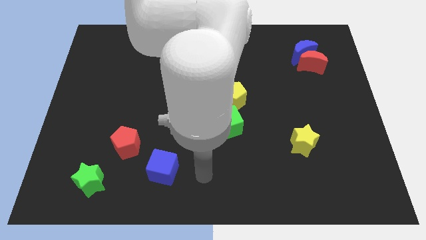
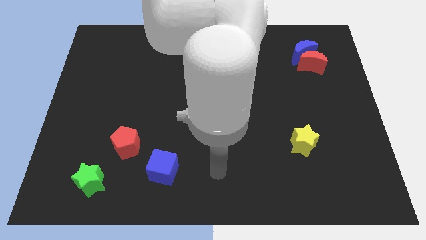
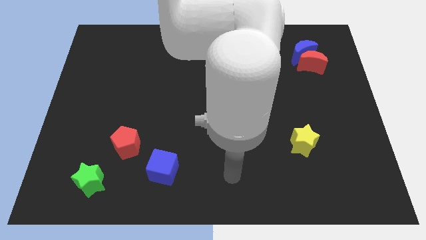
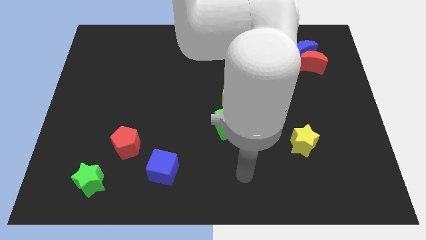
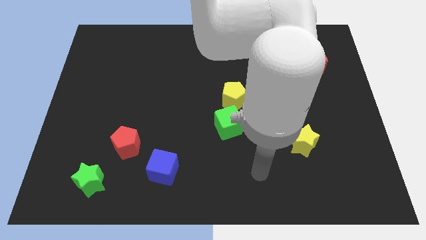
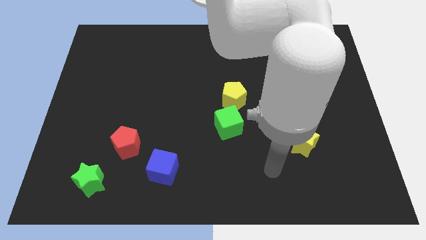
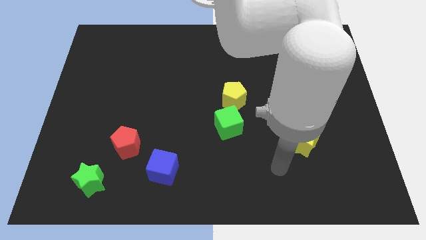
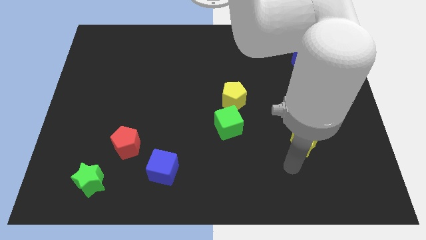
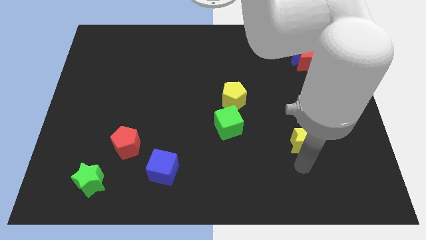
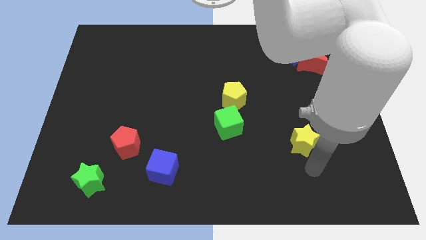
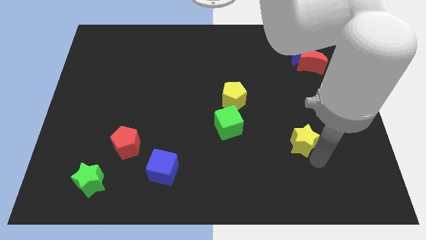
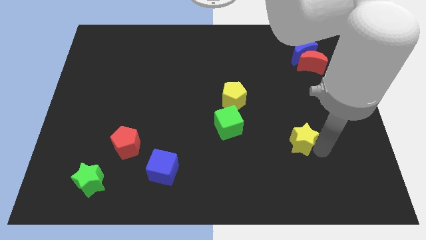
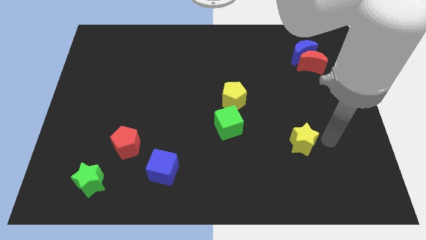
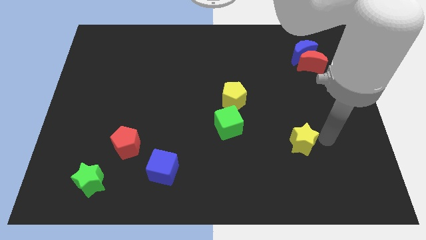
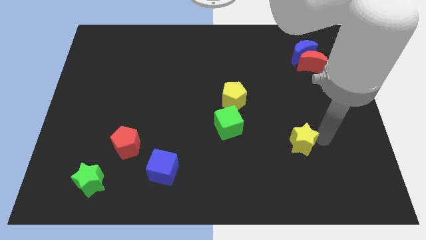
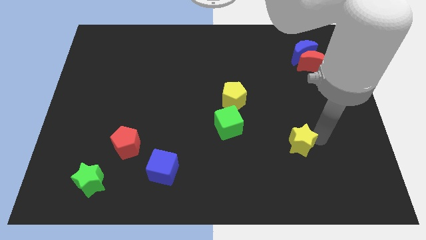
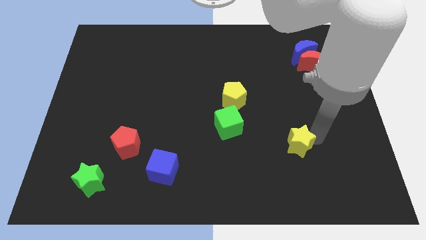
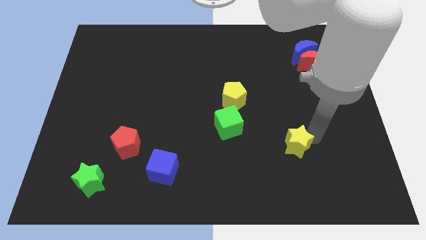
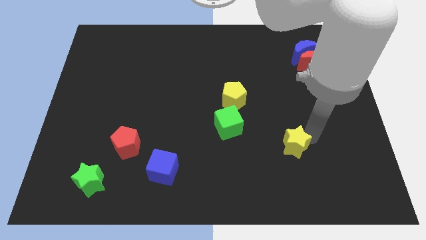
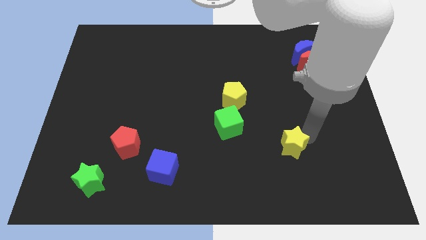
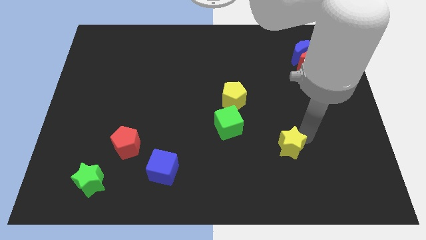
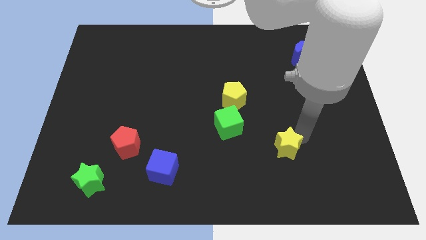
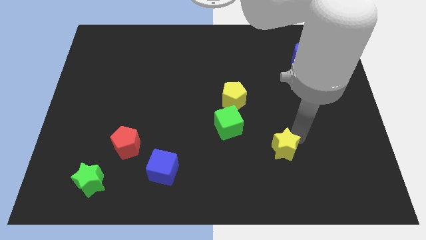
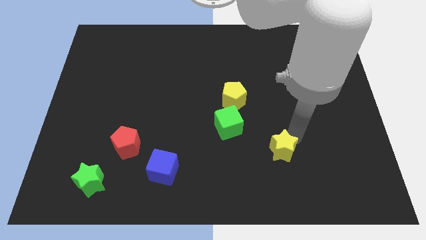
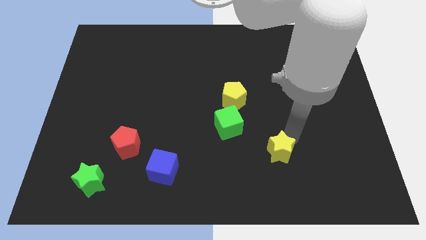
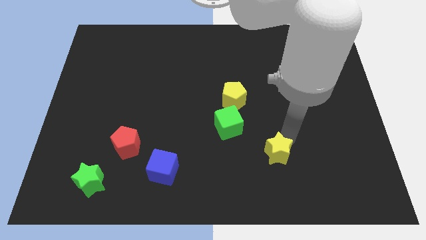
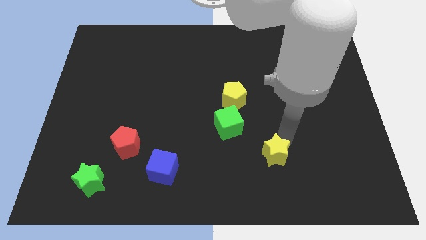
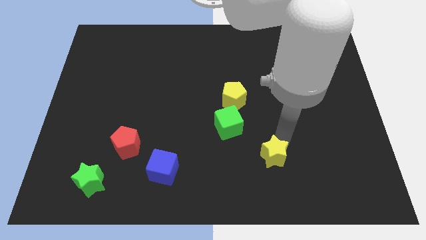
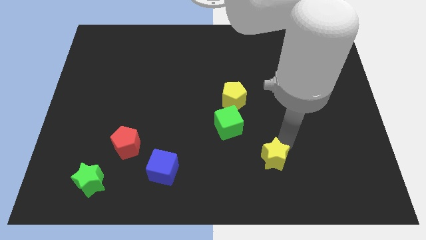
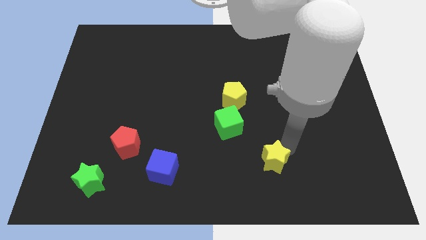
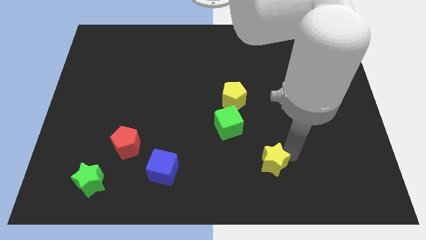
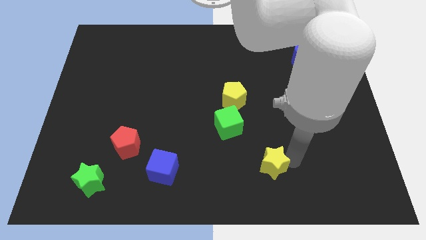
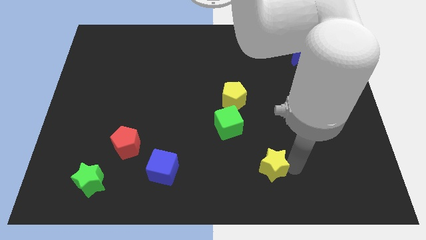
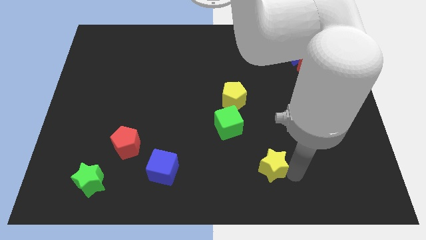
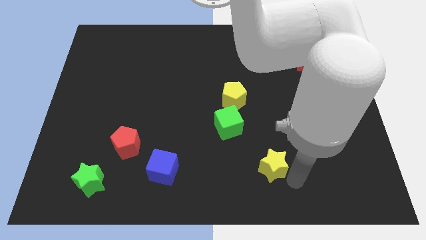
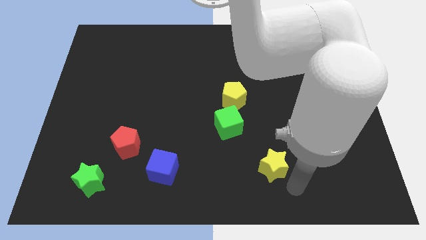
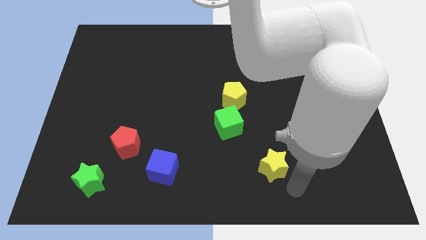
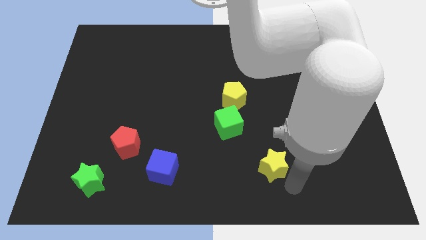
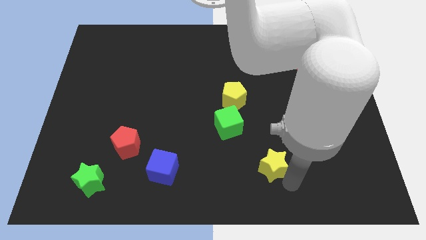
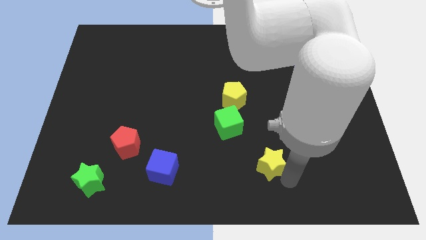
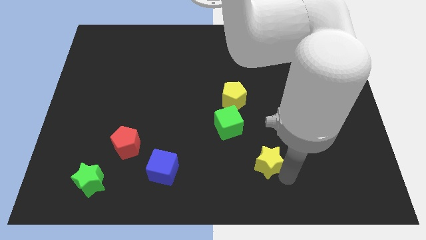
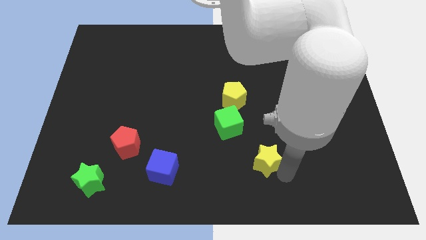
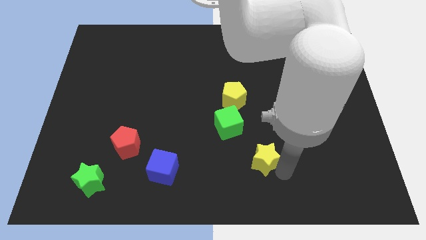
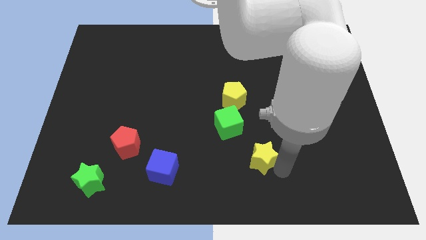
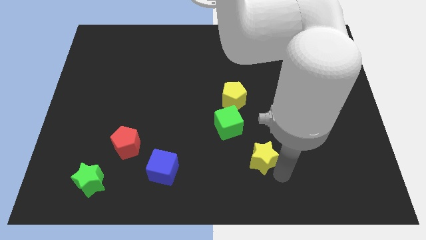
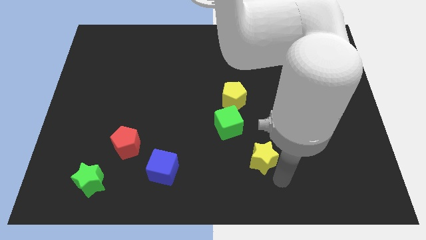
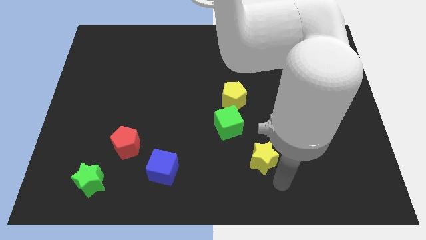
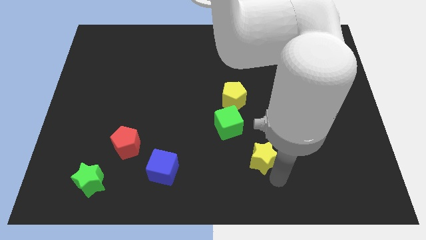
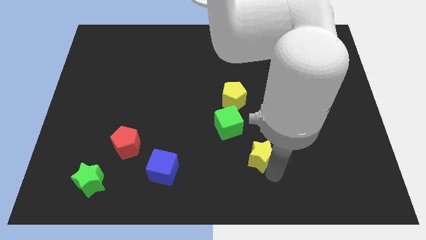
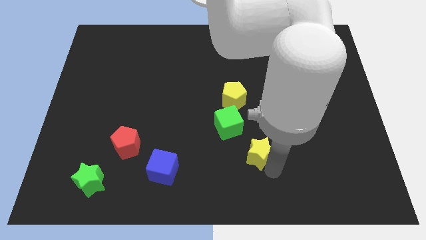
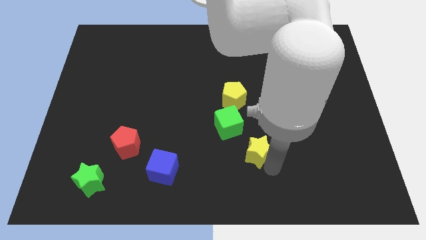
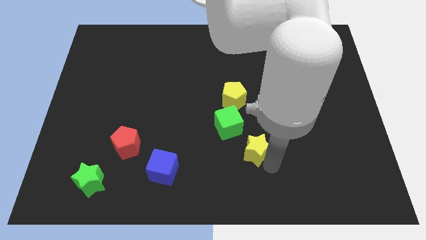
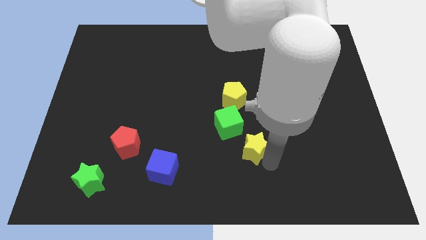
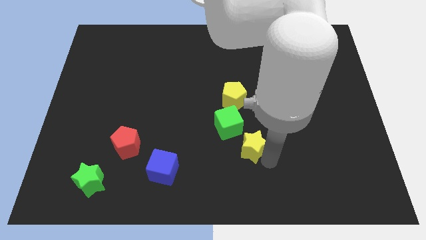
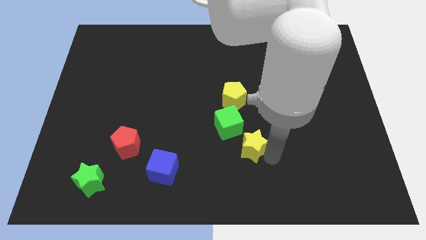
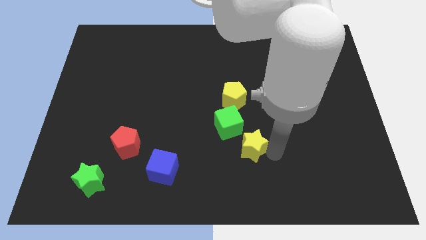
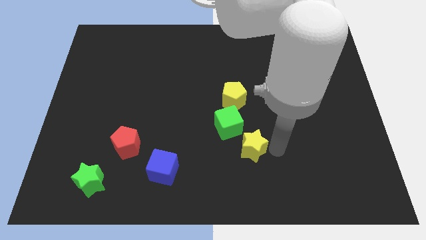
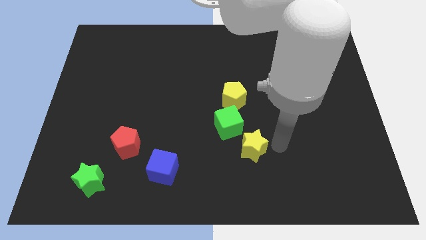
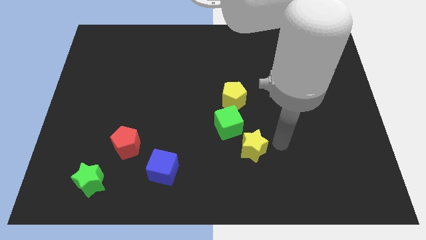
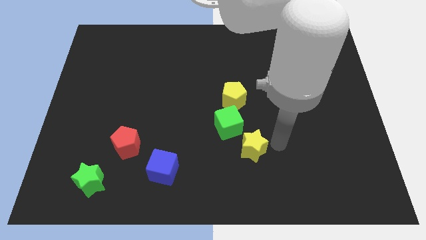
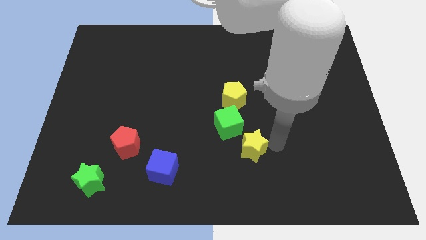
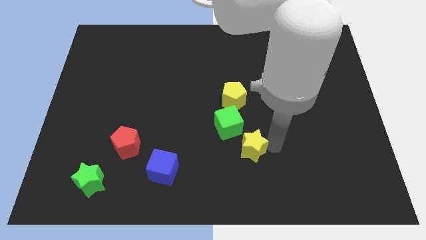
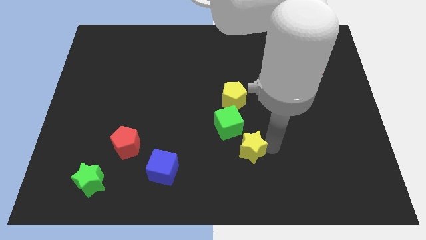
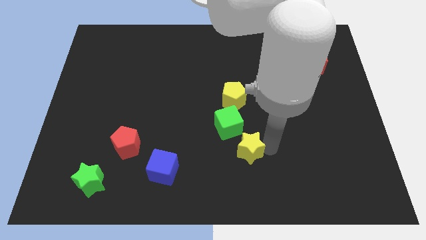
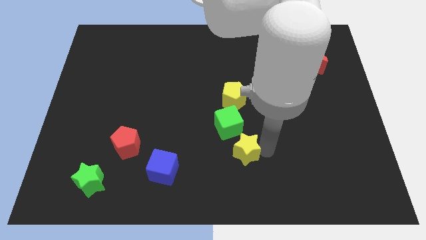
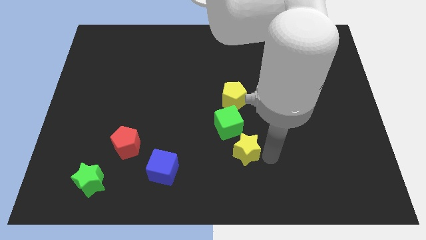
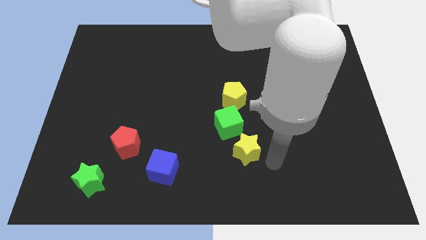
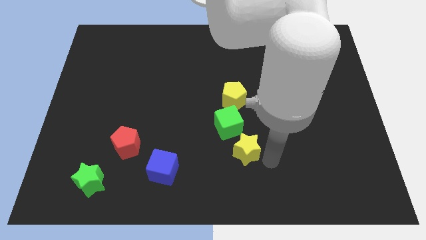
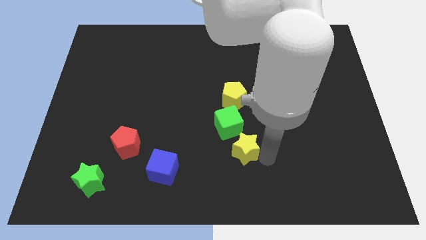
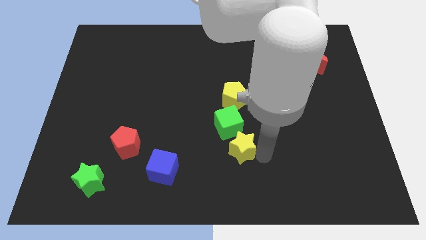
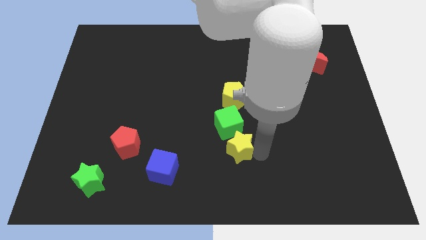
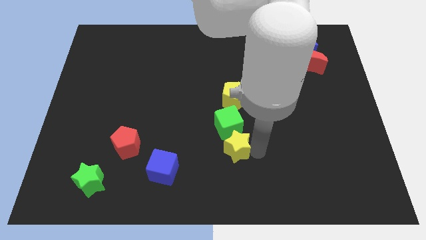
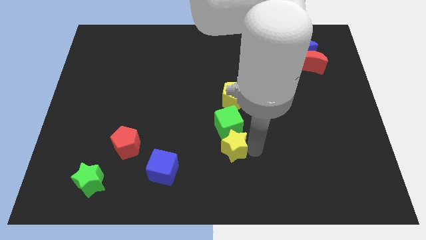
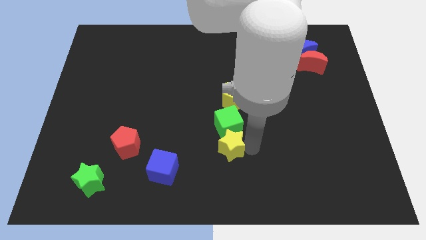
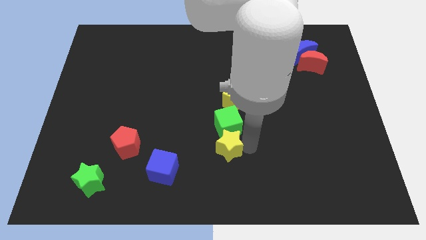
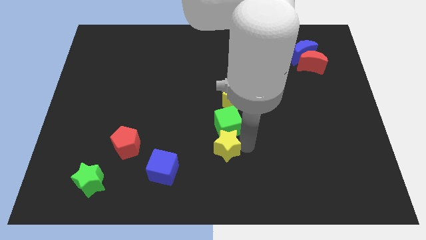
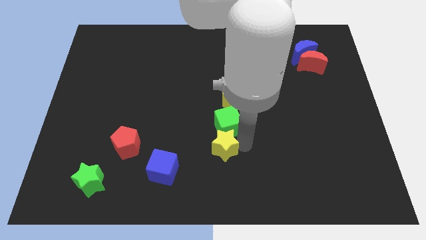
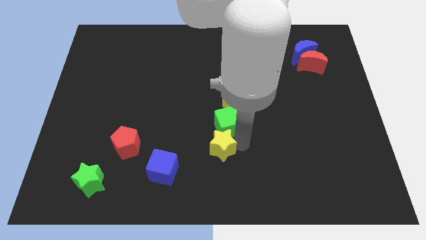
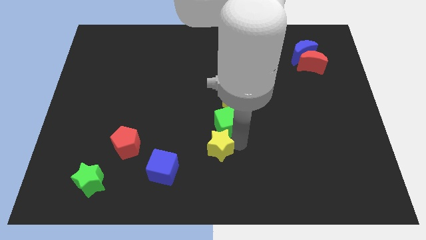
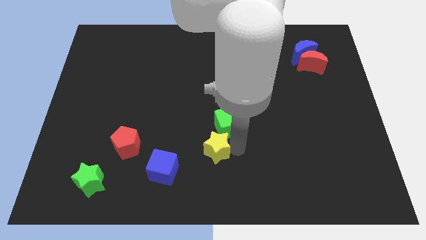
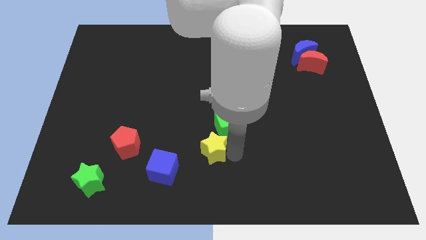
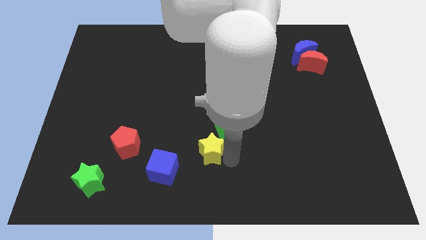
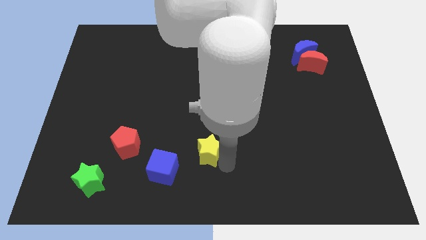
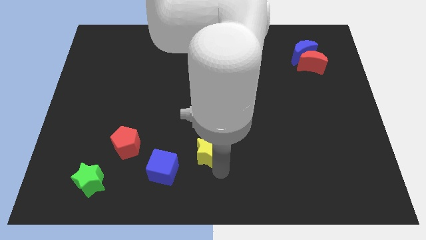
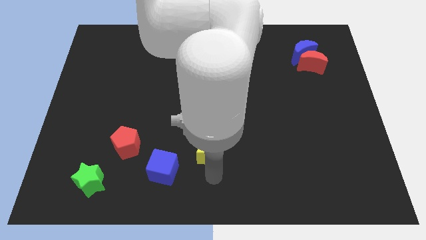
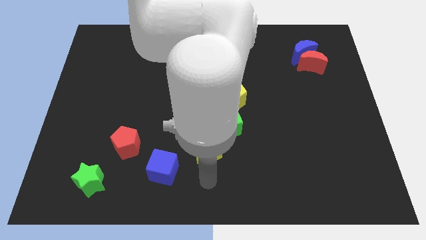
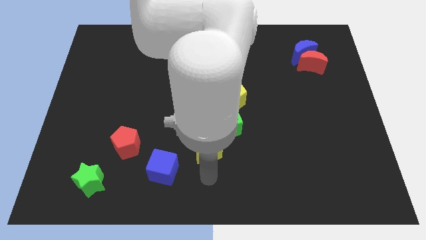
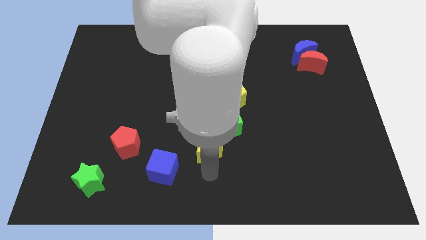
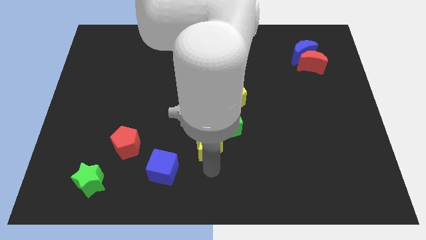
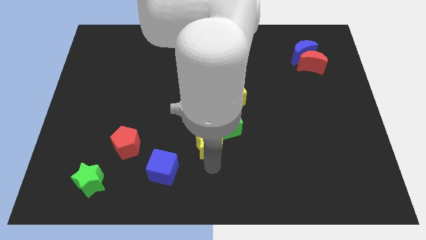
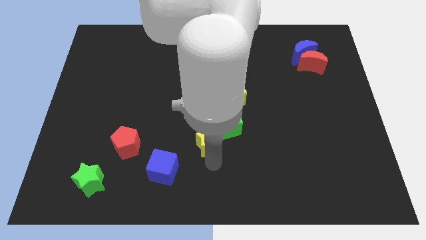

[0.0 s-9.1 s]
push the yellow star to the middle
